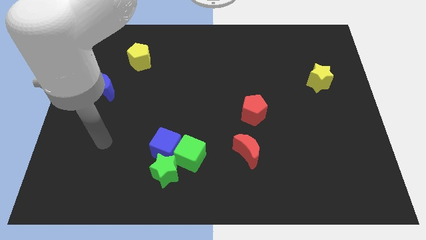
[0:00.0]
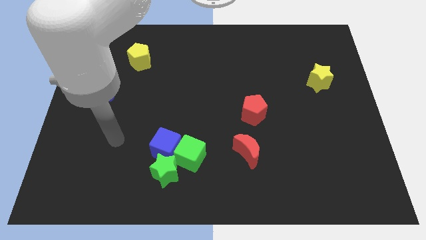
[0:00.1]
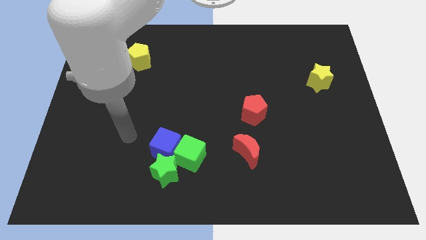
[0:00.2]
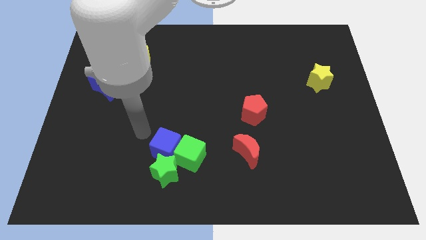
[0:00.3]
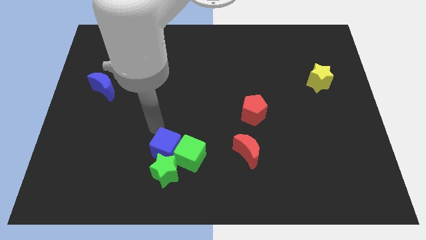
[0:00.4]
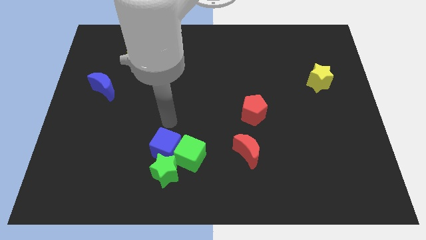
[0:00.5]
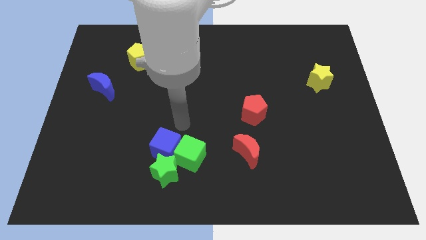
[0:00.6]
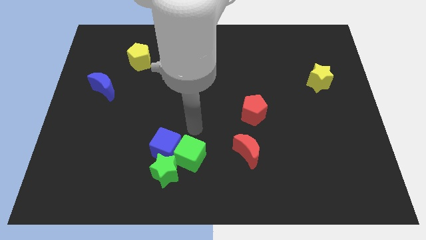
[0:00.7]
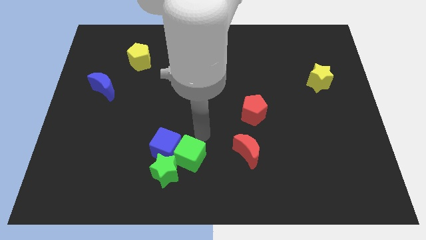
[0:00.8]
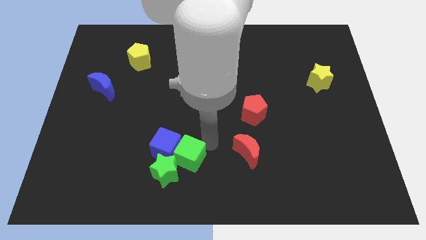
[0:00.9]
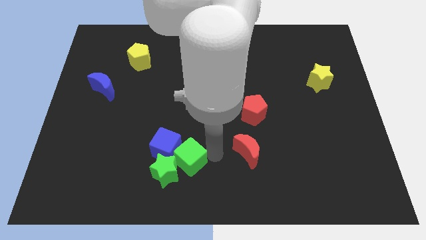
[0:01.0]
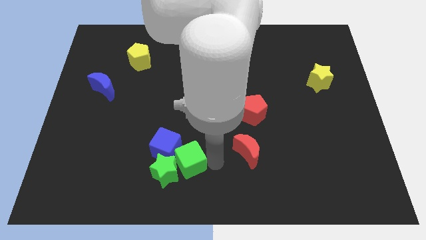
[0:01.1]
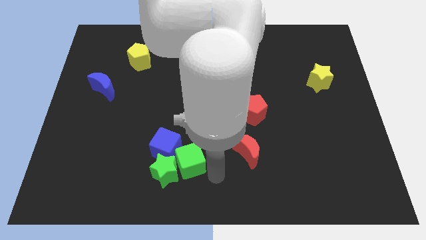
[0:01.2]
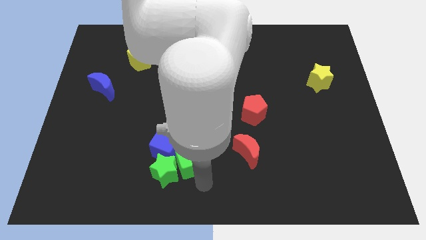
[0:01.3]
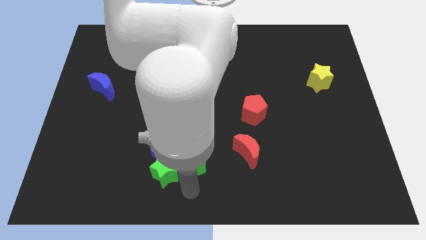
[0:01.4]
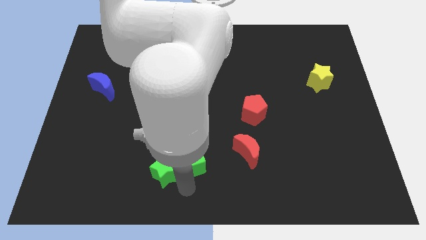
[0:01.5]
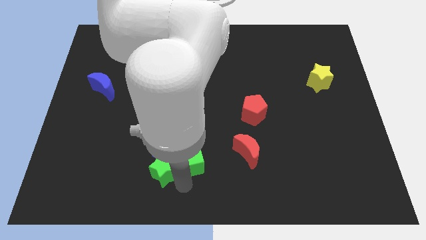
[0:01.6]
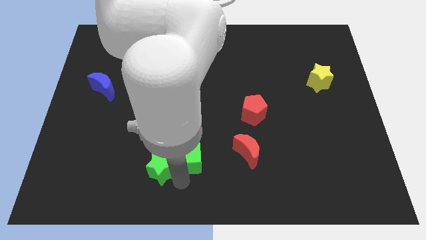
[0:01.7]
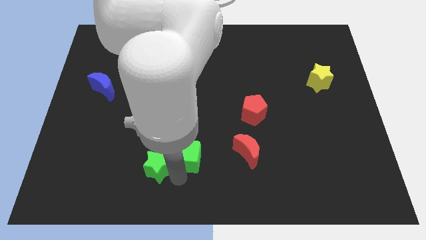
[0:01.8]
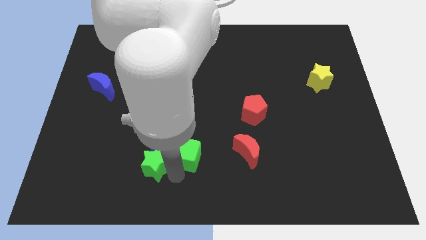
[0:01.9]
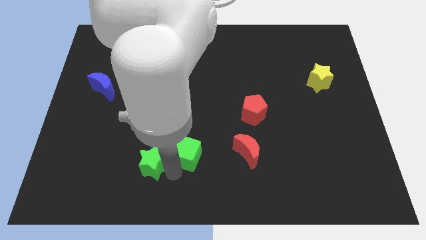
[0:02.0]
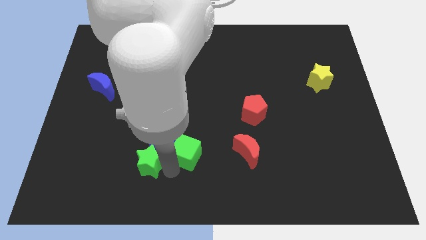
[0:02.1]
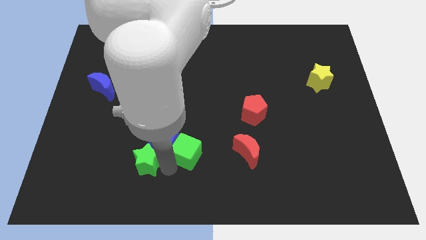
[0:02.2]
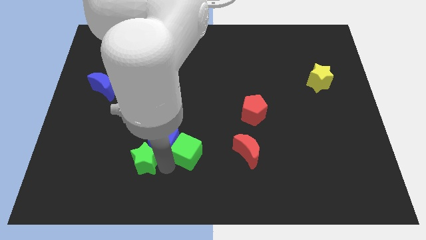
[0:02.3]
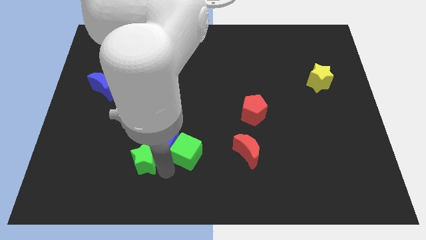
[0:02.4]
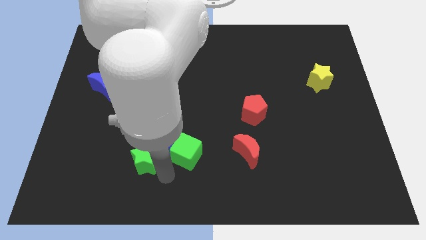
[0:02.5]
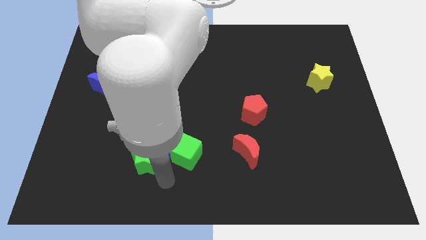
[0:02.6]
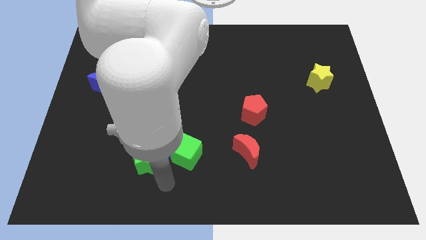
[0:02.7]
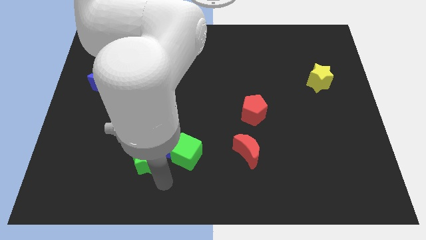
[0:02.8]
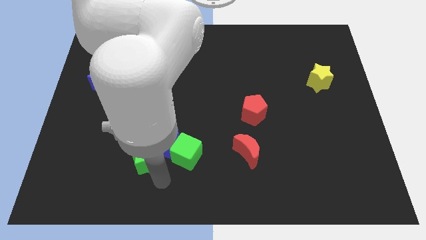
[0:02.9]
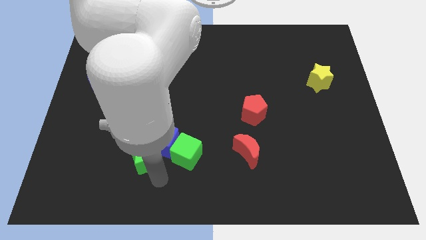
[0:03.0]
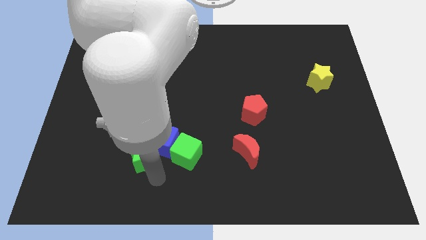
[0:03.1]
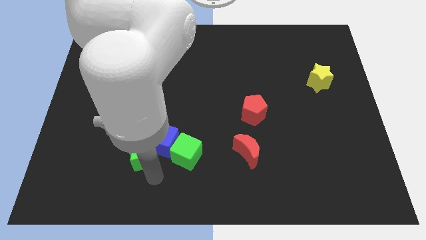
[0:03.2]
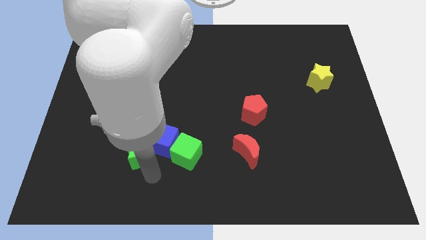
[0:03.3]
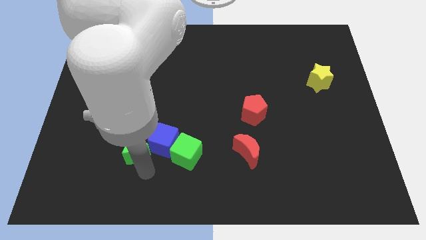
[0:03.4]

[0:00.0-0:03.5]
push the green star somewhat up and to the left diagonally

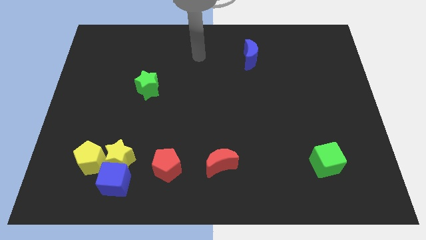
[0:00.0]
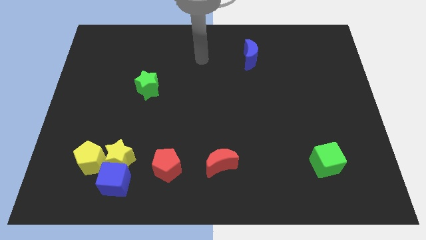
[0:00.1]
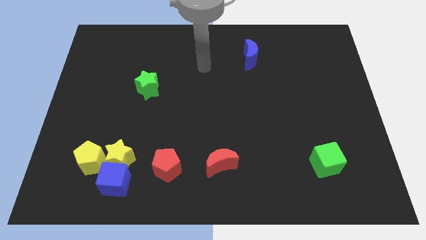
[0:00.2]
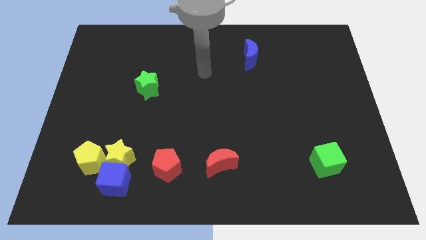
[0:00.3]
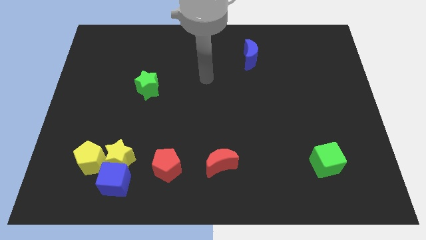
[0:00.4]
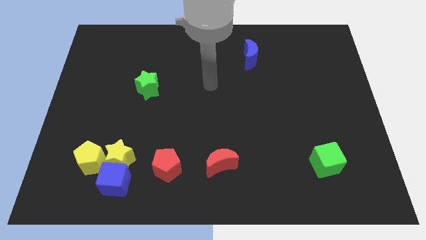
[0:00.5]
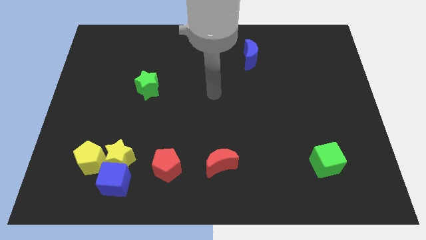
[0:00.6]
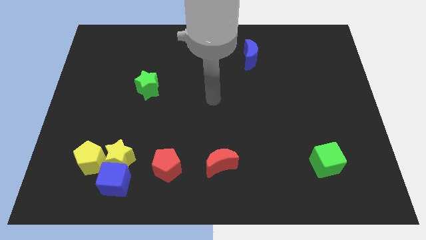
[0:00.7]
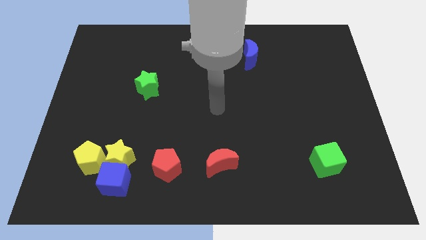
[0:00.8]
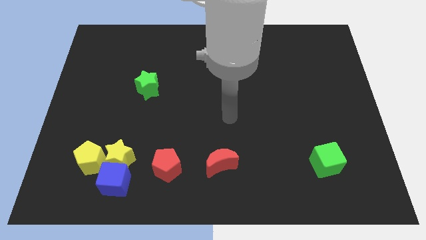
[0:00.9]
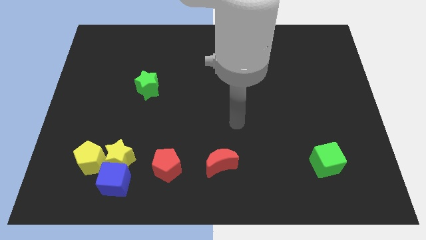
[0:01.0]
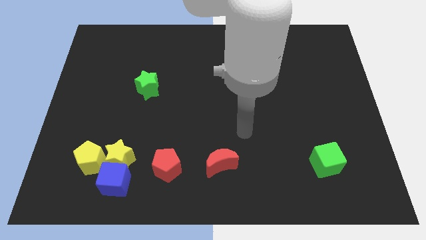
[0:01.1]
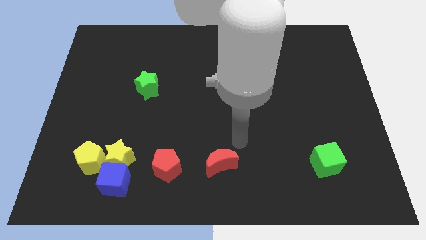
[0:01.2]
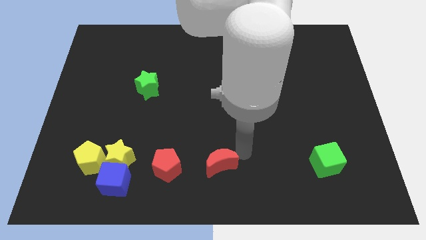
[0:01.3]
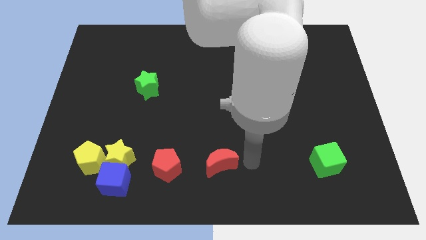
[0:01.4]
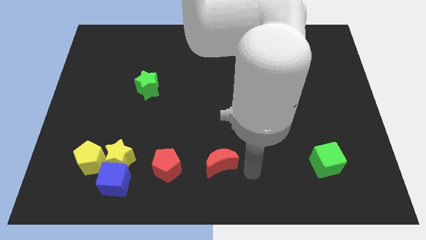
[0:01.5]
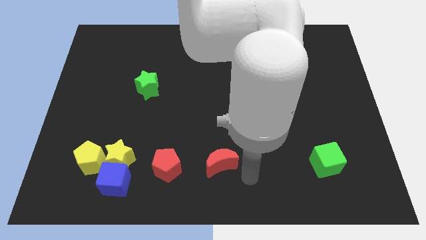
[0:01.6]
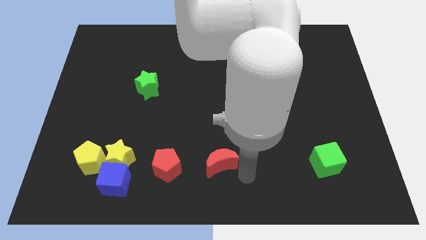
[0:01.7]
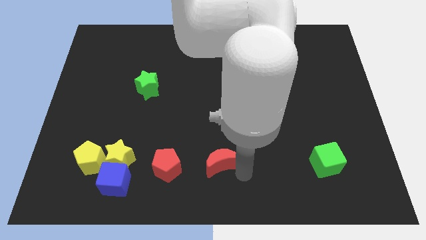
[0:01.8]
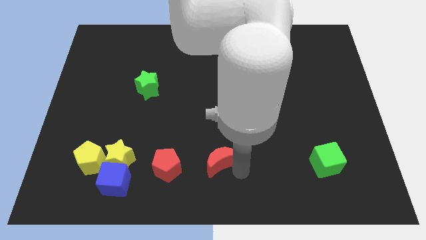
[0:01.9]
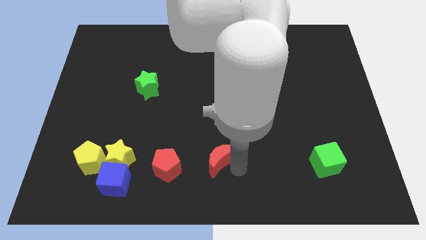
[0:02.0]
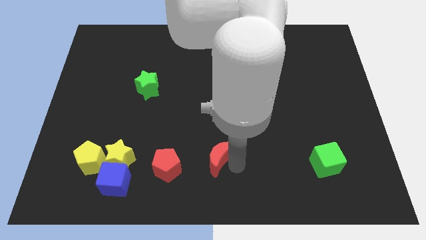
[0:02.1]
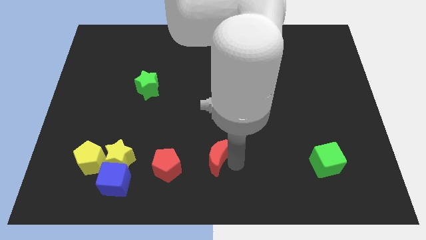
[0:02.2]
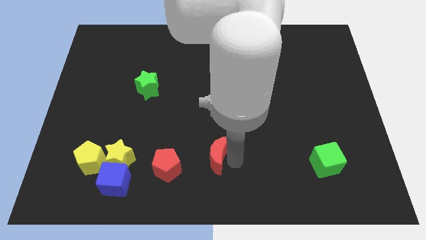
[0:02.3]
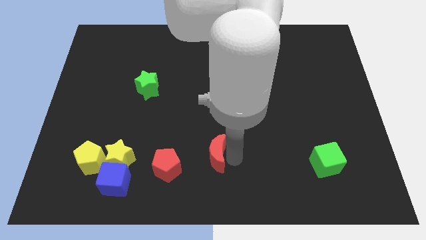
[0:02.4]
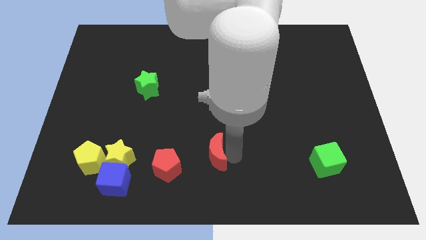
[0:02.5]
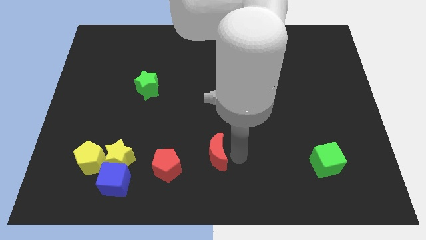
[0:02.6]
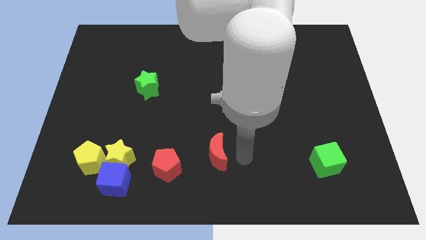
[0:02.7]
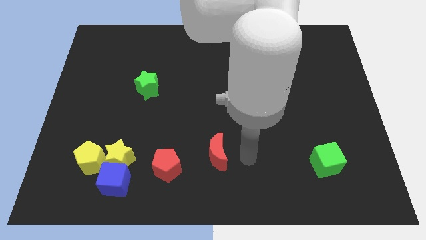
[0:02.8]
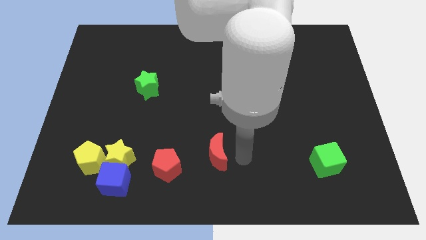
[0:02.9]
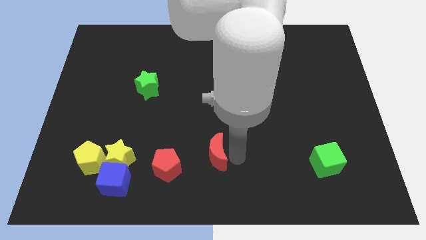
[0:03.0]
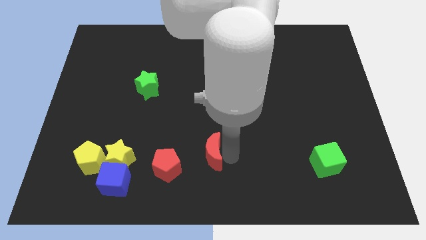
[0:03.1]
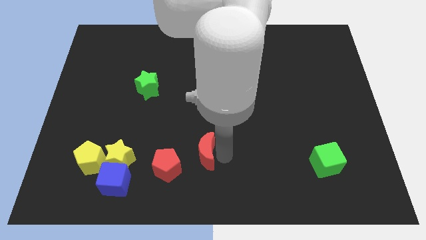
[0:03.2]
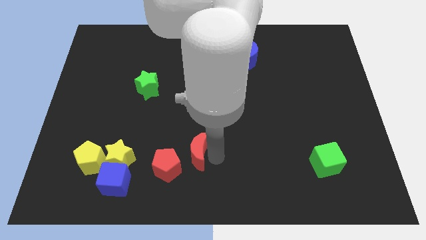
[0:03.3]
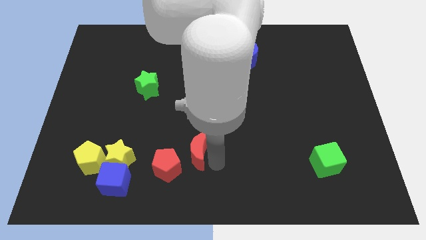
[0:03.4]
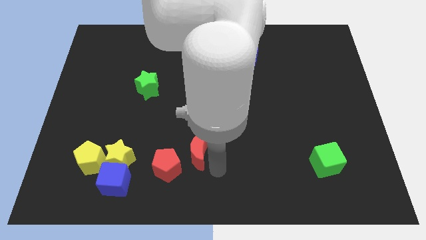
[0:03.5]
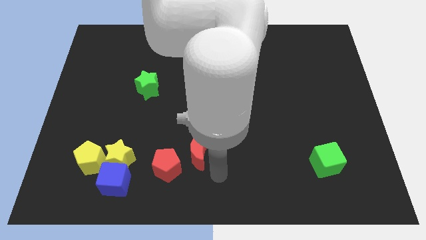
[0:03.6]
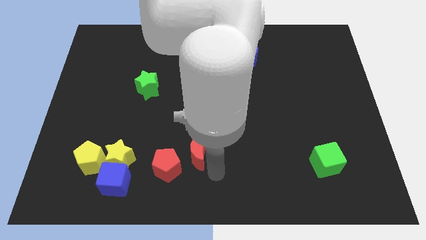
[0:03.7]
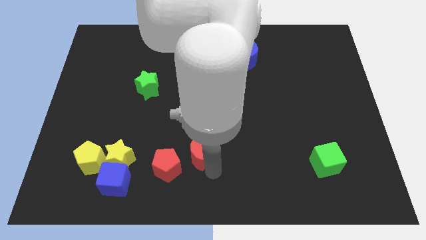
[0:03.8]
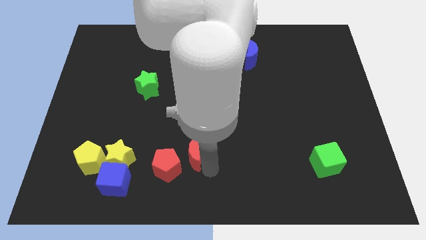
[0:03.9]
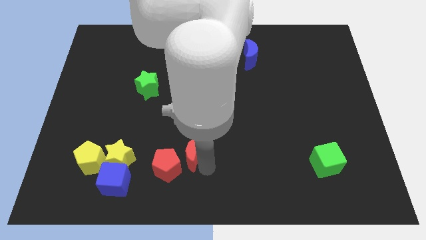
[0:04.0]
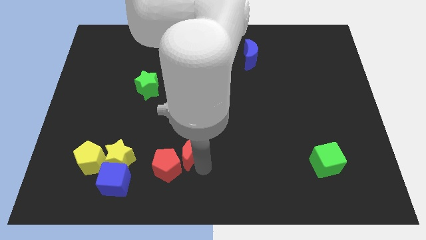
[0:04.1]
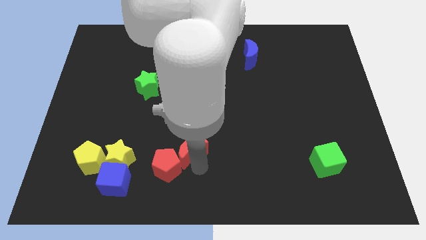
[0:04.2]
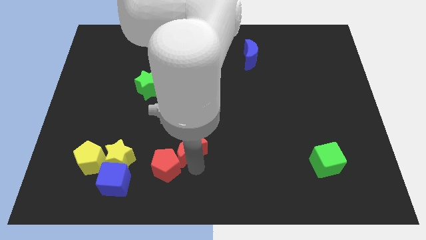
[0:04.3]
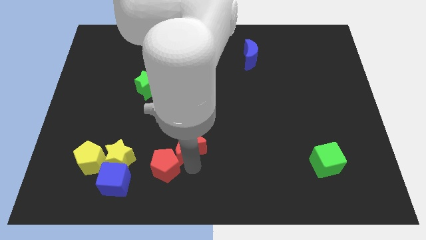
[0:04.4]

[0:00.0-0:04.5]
push the red moon diagonally up and to the left slightly

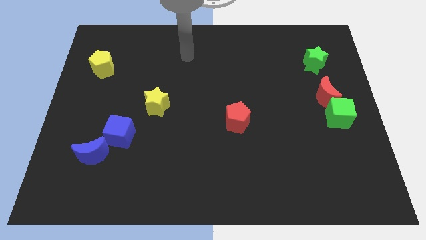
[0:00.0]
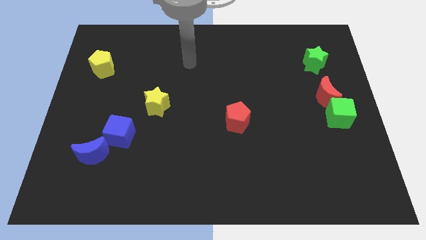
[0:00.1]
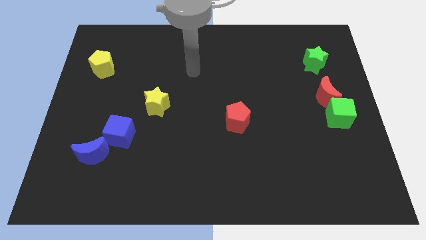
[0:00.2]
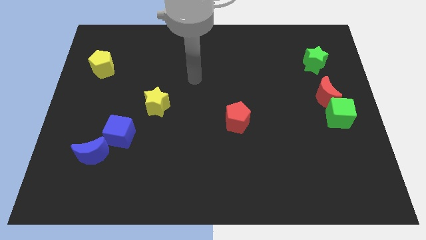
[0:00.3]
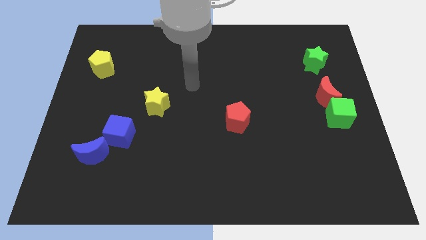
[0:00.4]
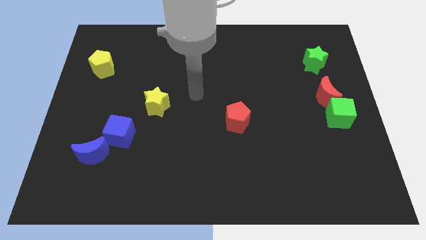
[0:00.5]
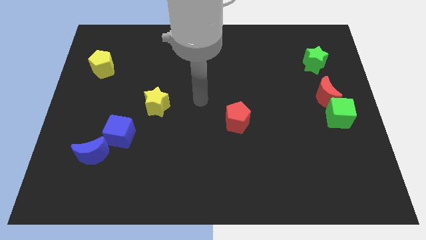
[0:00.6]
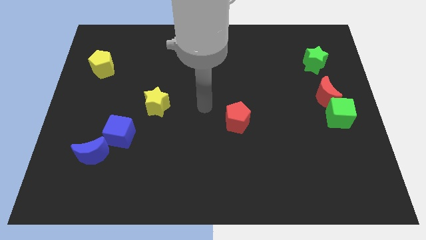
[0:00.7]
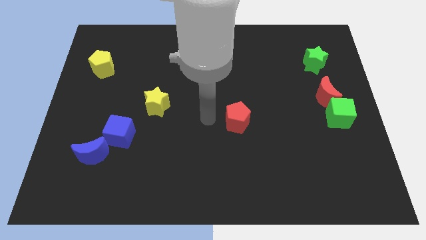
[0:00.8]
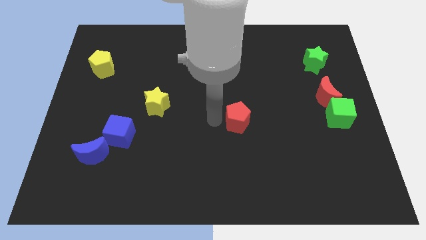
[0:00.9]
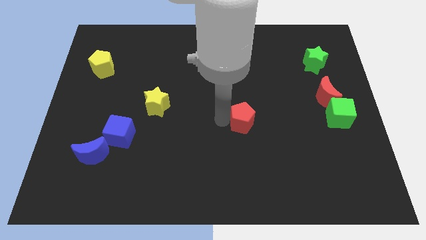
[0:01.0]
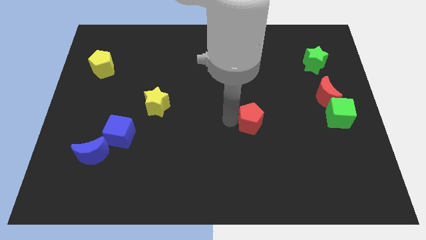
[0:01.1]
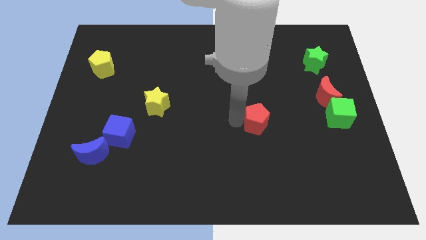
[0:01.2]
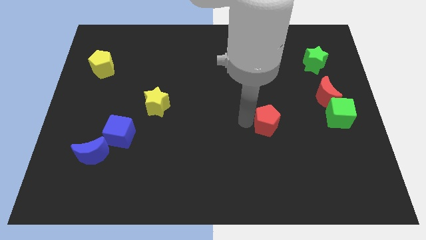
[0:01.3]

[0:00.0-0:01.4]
slightly move the red pentagon right
